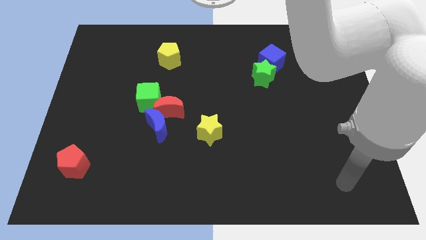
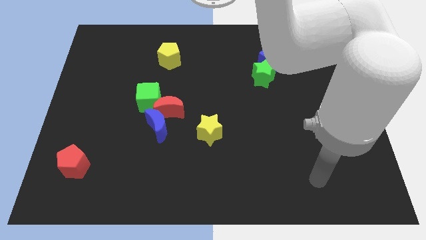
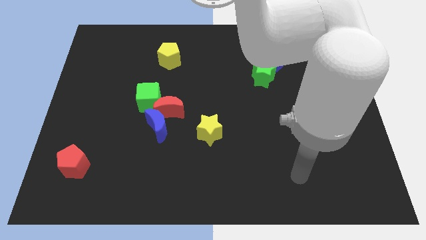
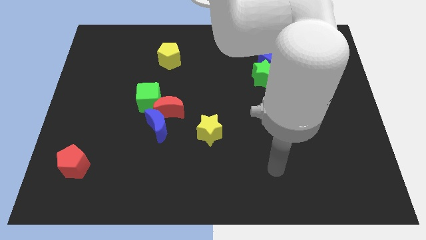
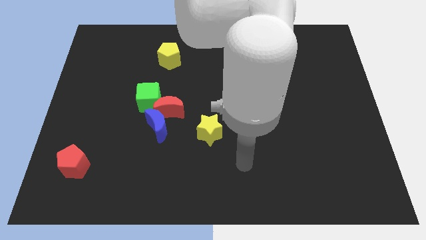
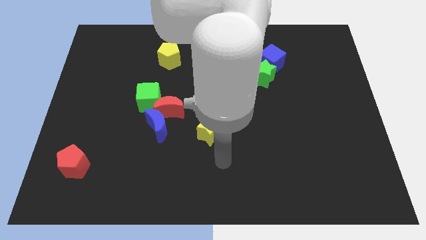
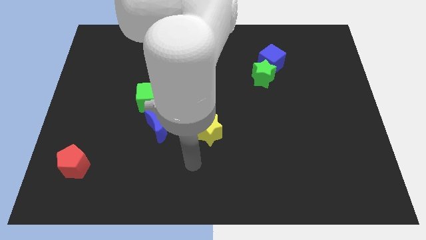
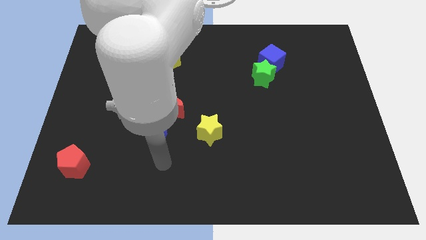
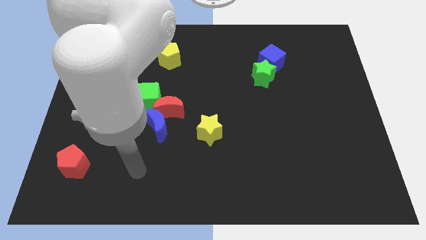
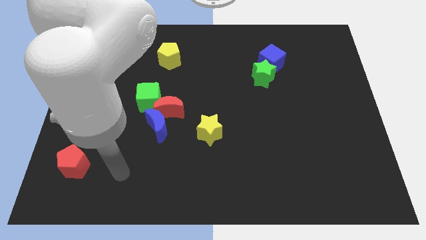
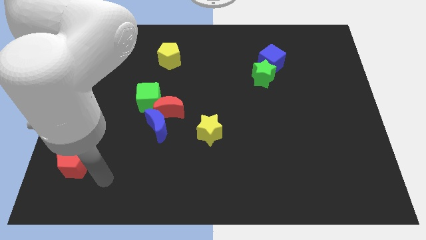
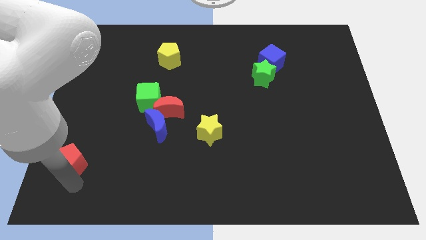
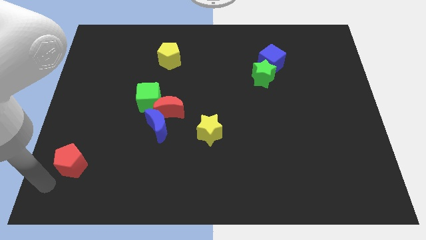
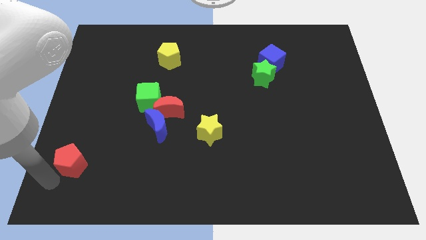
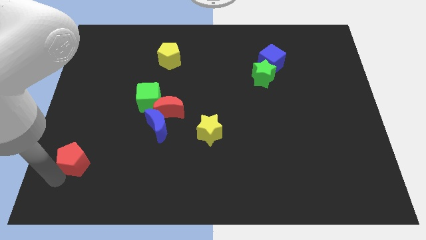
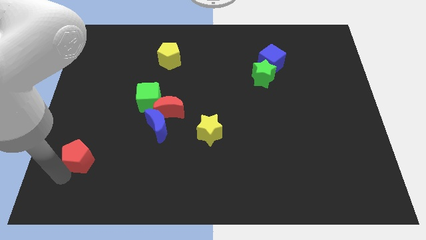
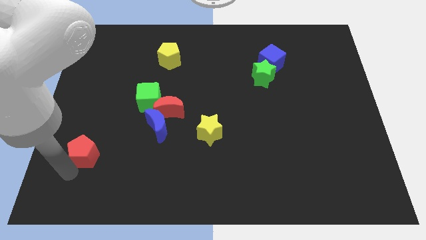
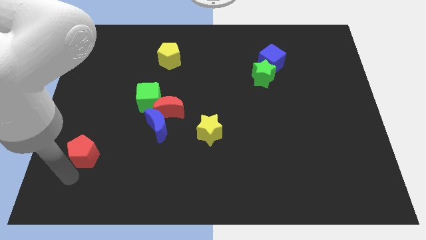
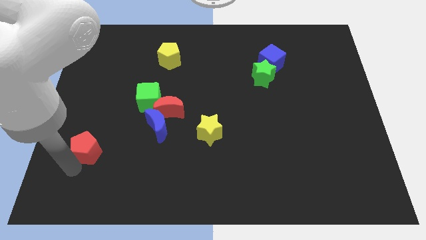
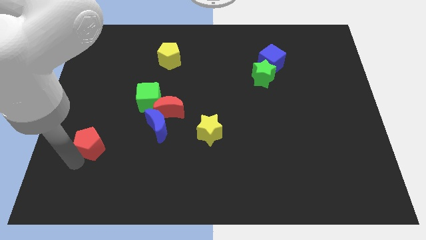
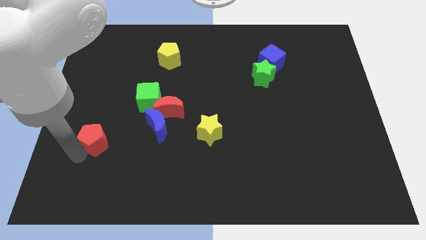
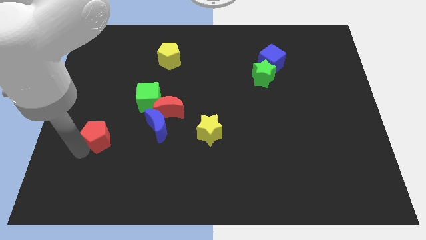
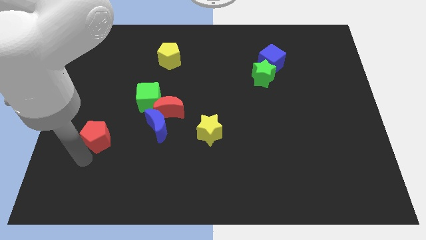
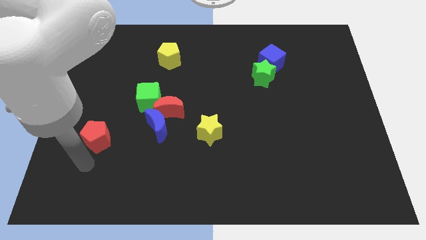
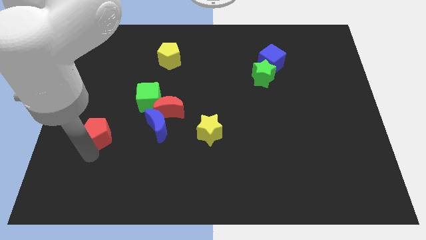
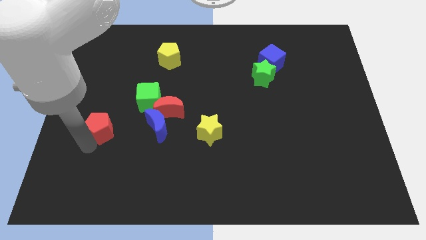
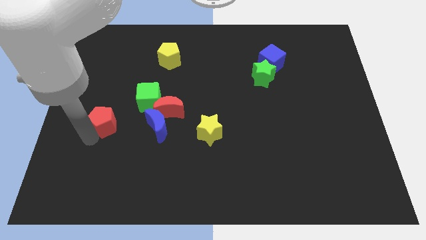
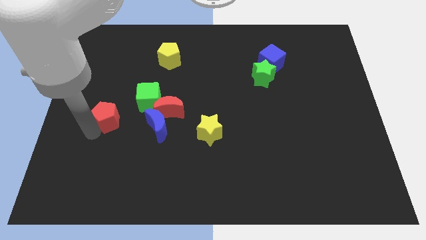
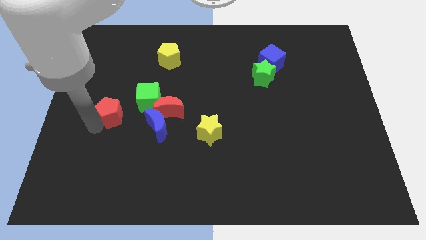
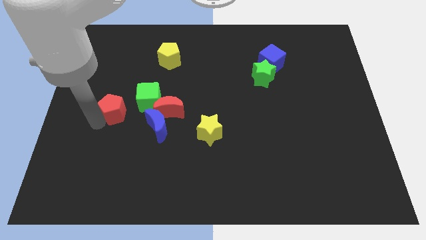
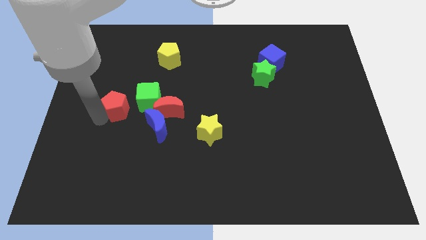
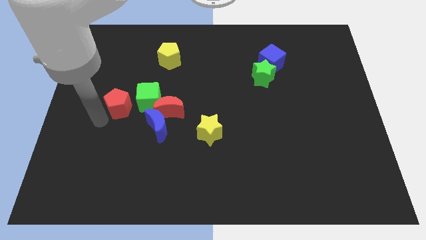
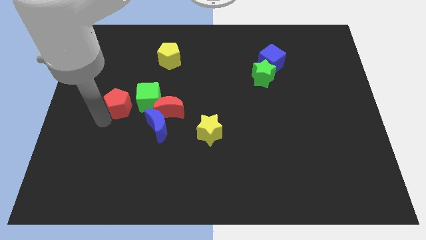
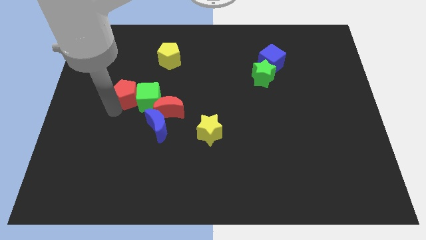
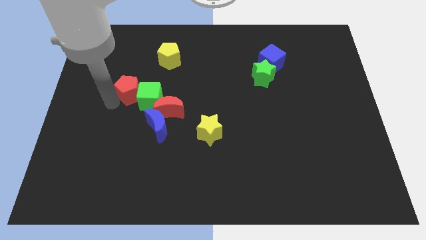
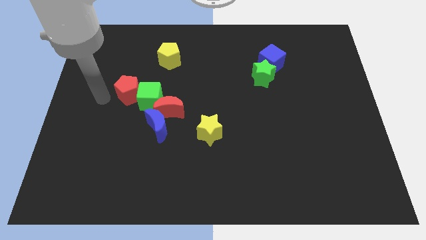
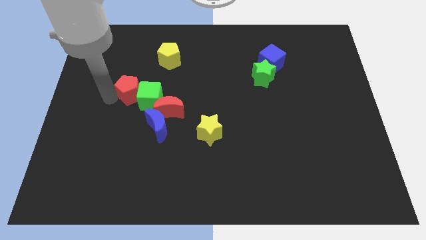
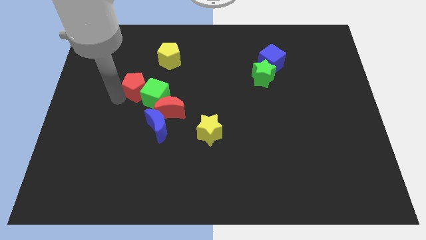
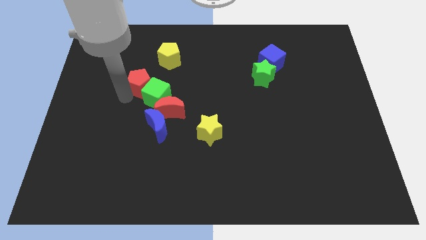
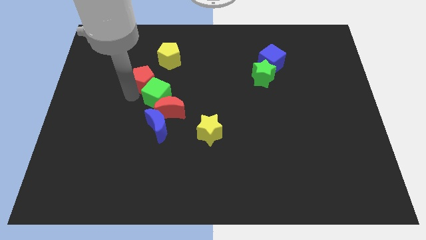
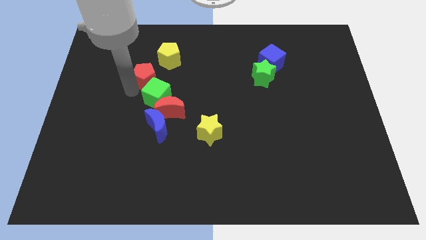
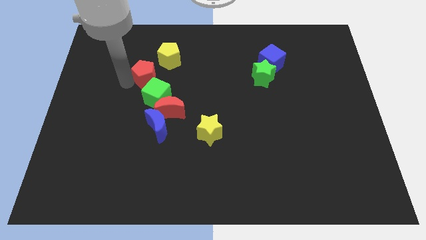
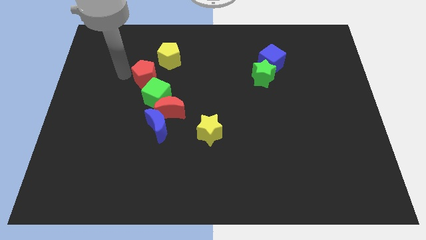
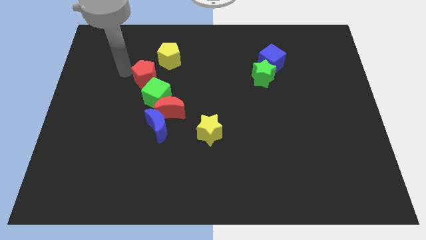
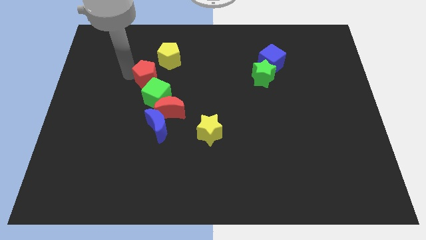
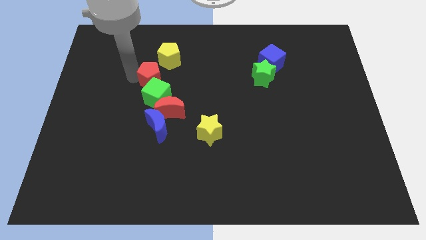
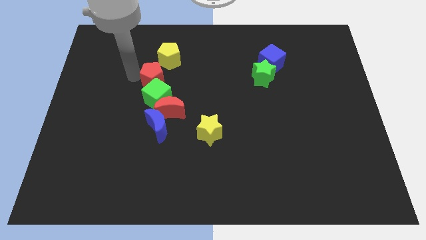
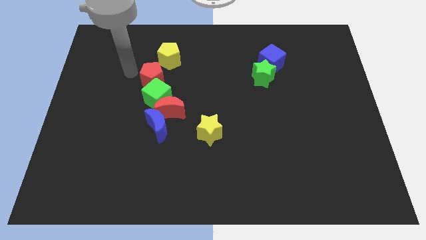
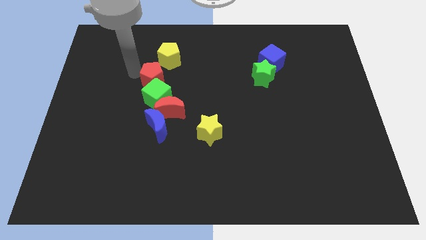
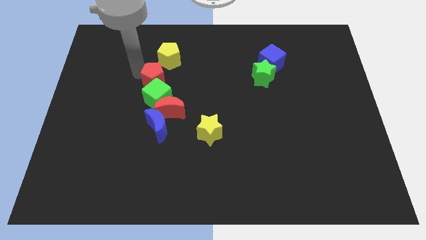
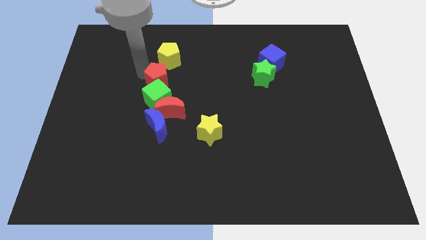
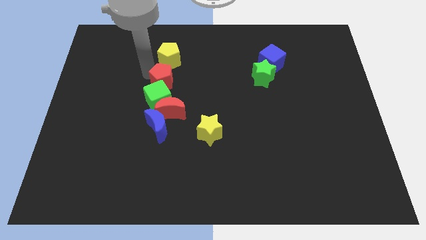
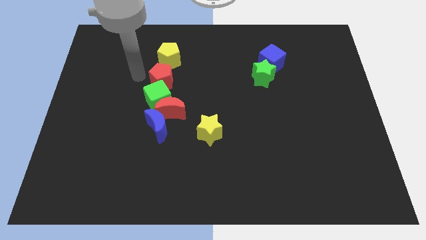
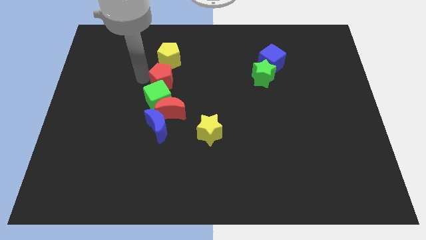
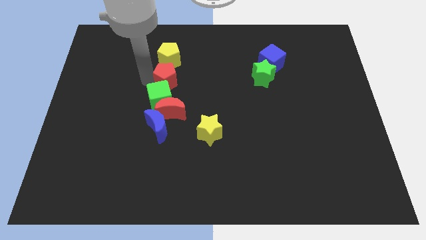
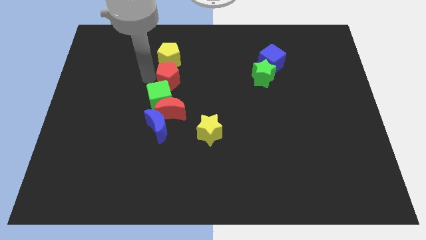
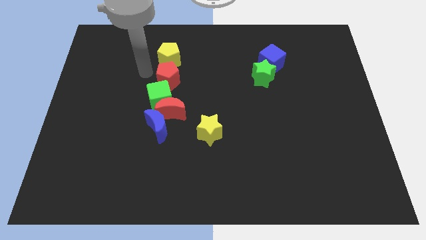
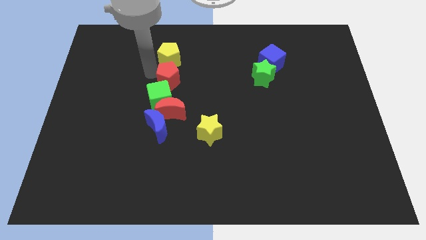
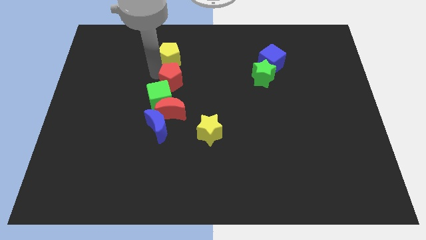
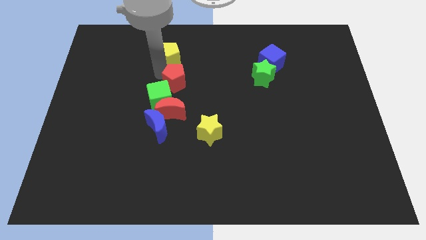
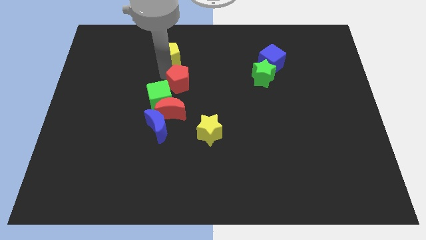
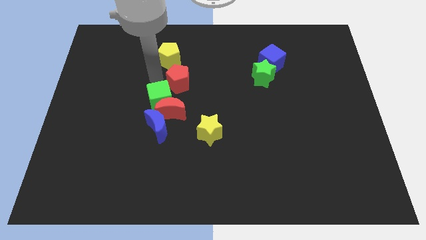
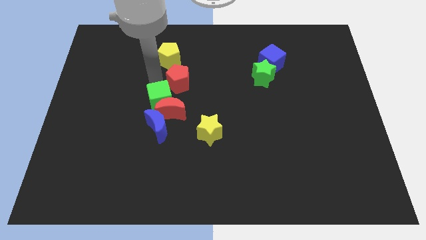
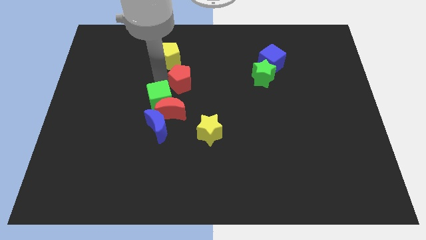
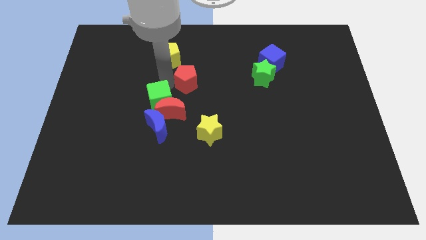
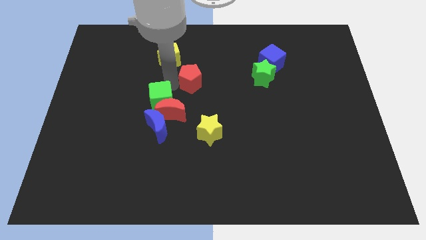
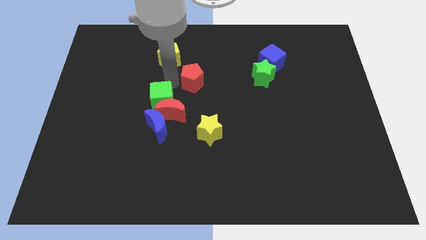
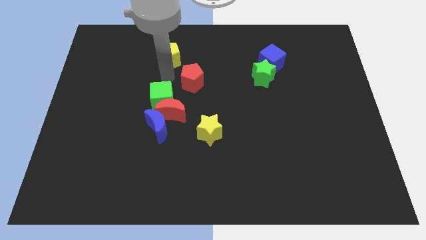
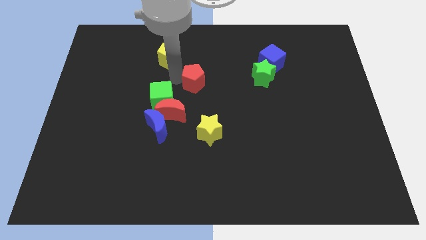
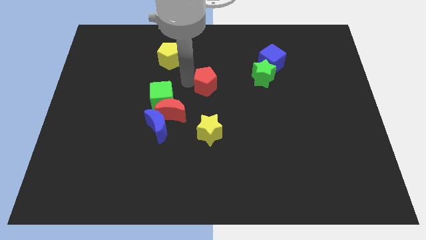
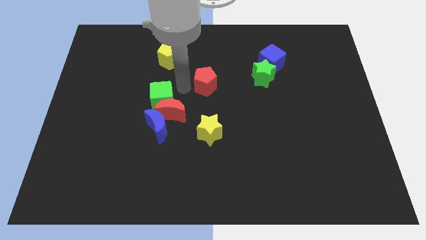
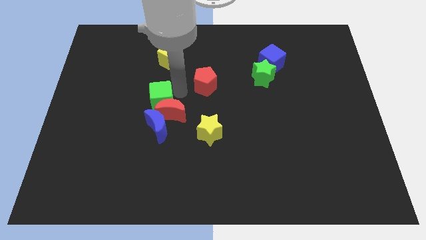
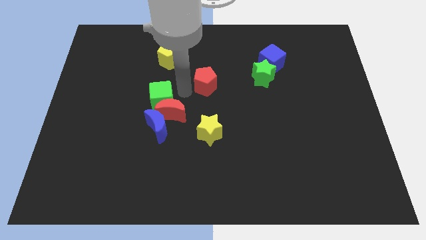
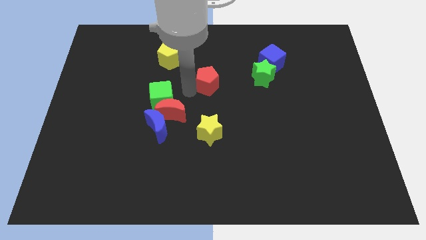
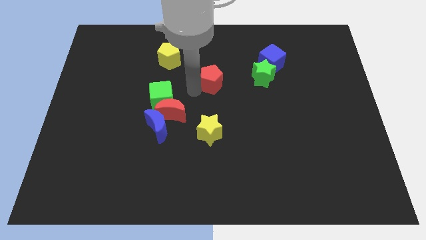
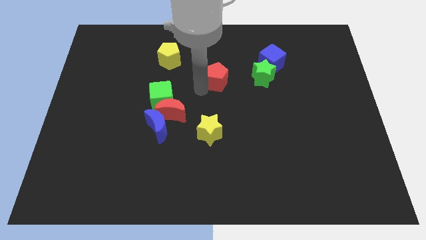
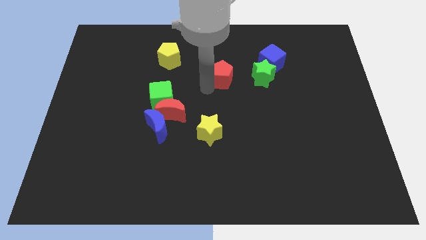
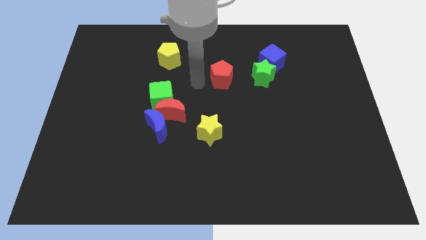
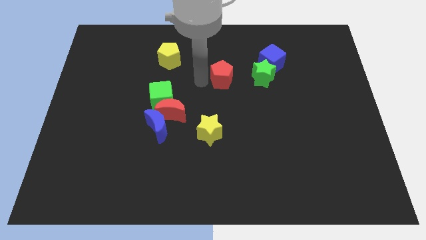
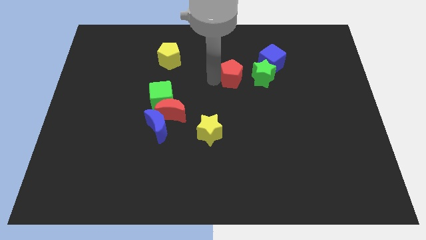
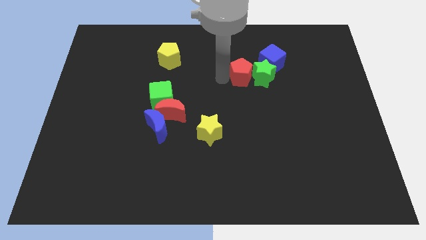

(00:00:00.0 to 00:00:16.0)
push the red pentagon next to the green star

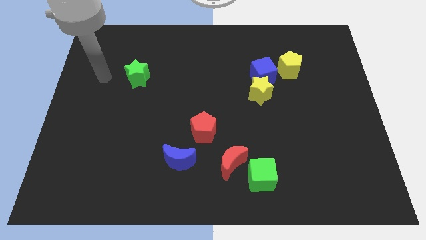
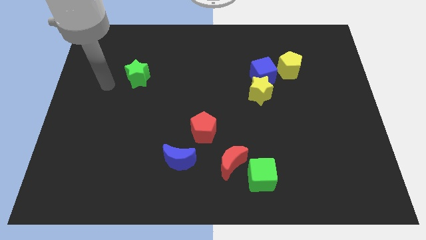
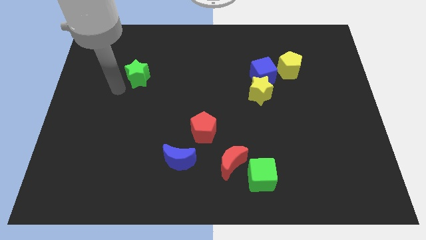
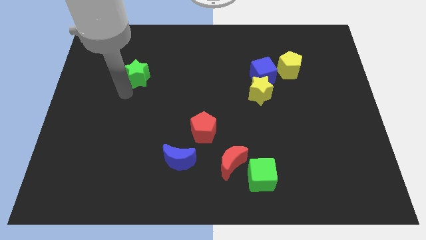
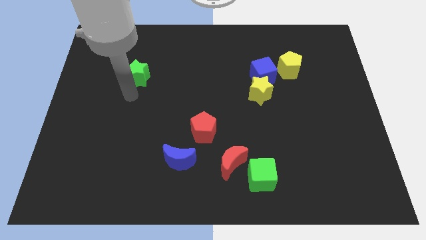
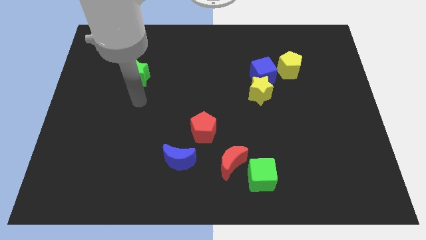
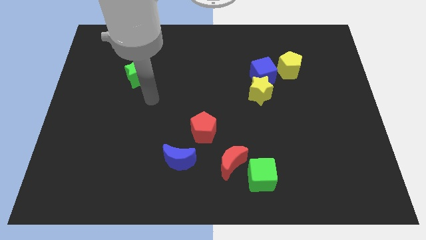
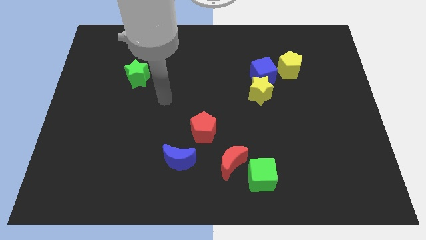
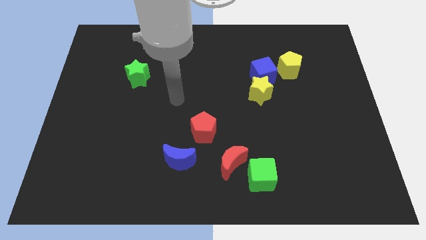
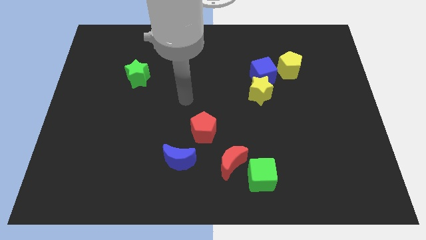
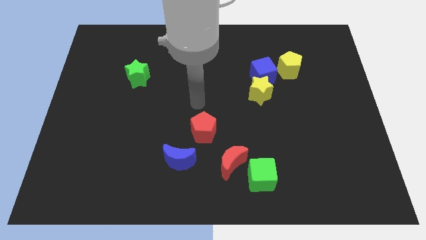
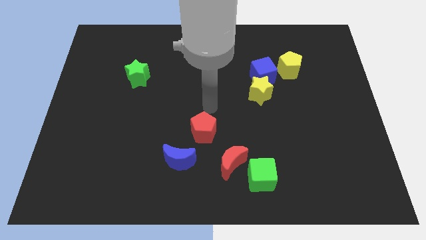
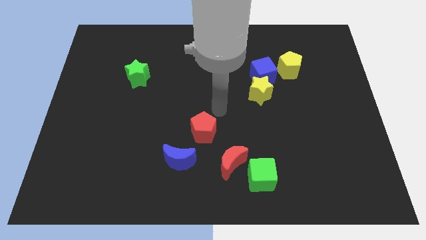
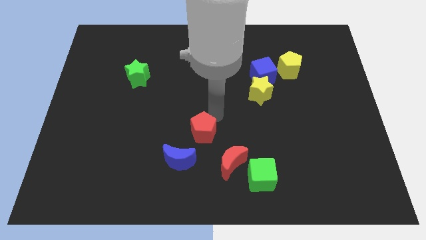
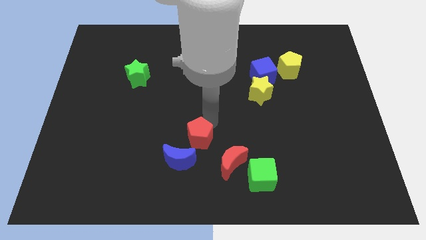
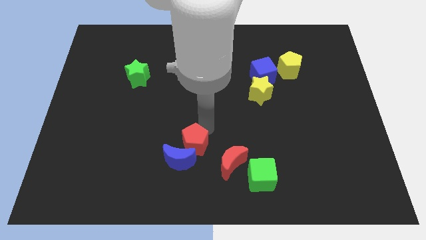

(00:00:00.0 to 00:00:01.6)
slide the red pentagon close to the blue moon
